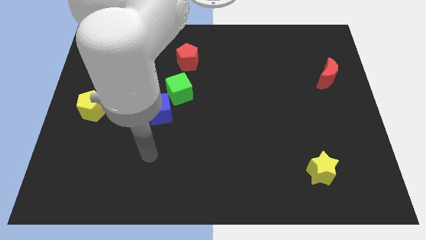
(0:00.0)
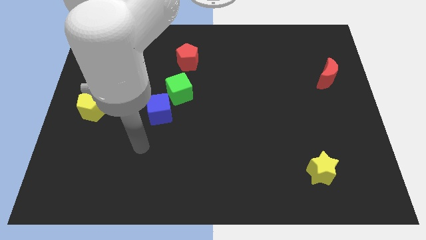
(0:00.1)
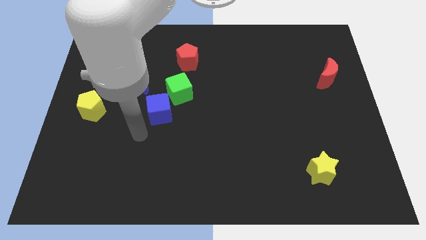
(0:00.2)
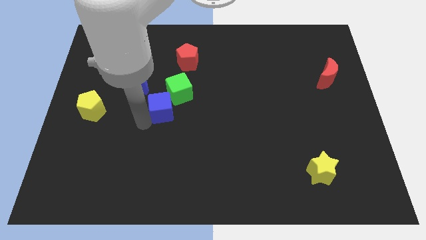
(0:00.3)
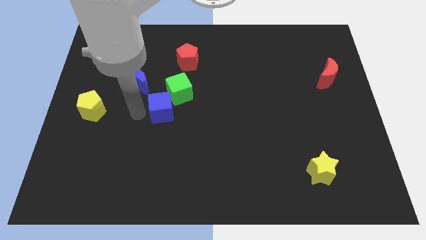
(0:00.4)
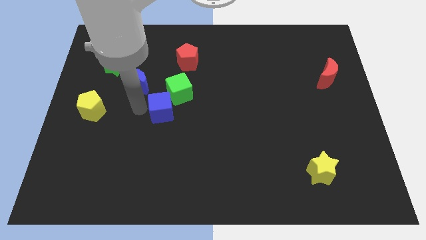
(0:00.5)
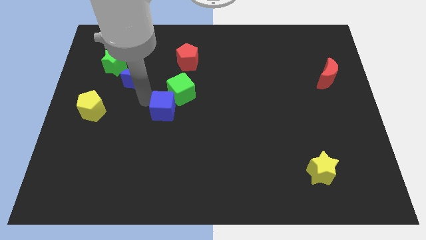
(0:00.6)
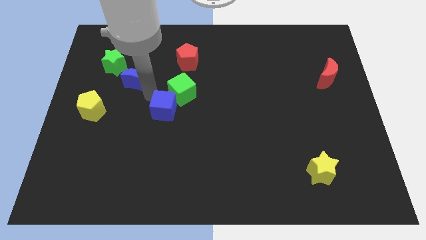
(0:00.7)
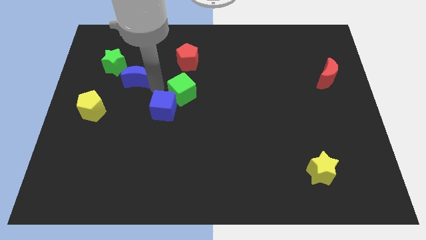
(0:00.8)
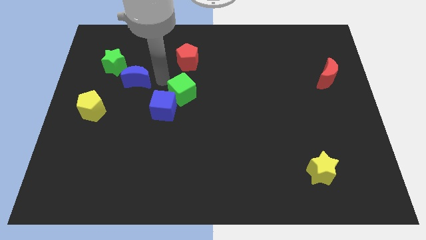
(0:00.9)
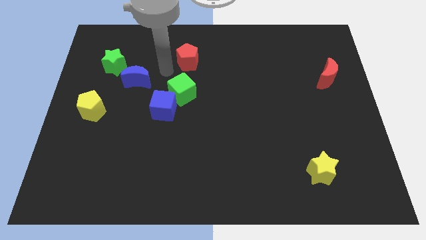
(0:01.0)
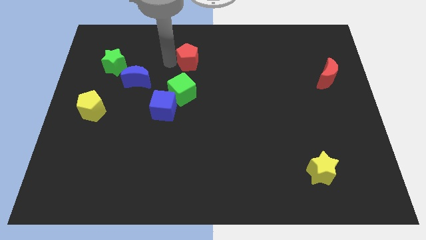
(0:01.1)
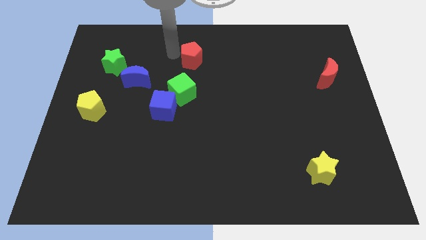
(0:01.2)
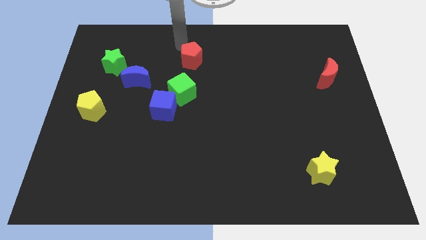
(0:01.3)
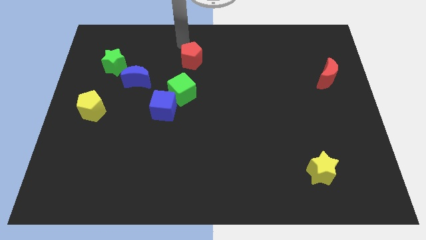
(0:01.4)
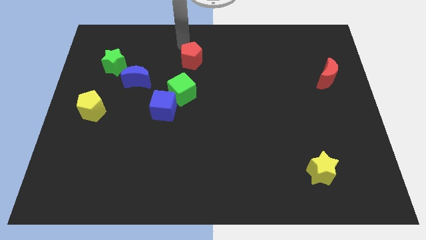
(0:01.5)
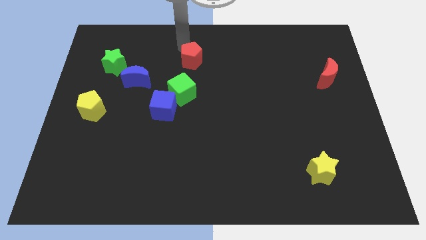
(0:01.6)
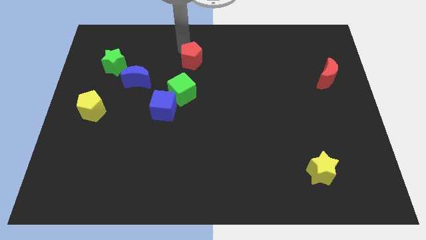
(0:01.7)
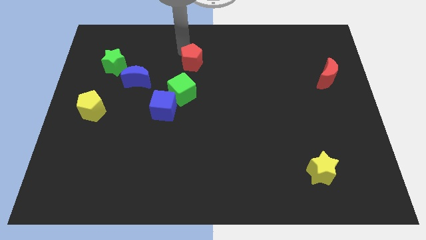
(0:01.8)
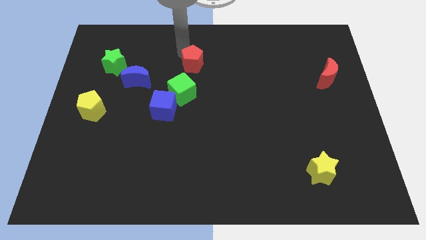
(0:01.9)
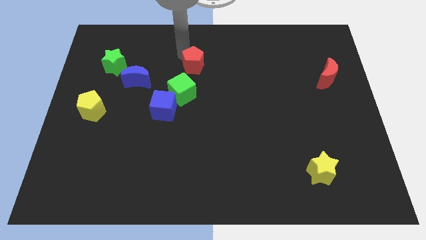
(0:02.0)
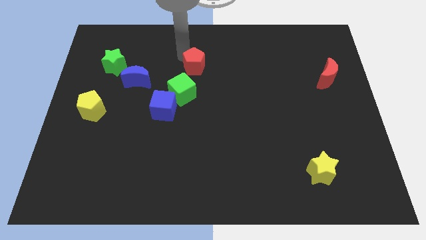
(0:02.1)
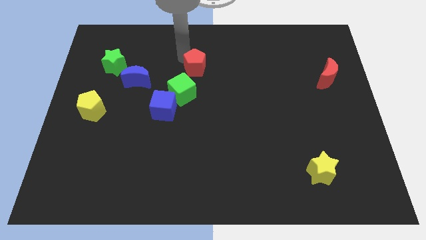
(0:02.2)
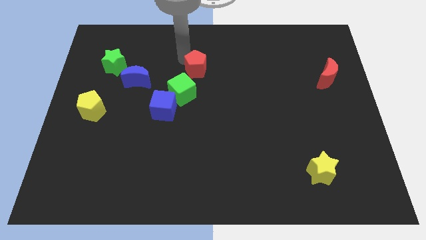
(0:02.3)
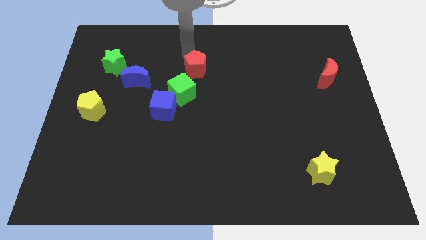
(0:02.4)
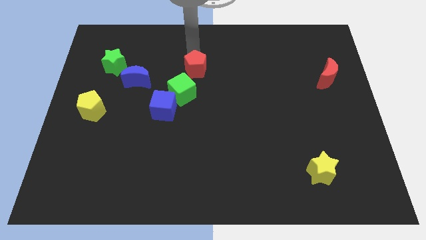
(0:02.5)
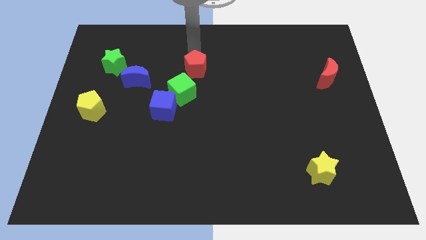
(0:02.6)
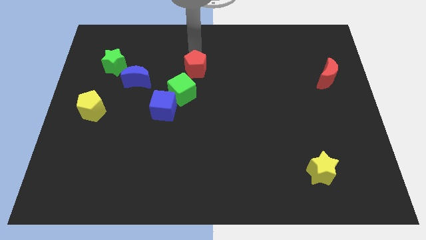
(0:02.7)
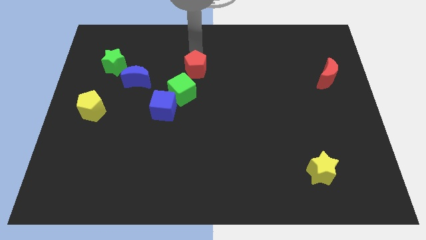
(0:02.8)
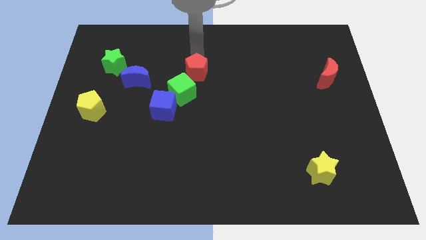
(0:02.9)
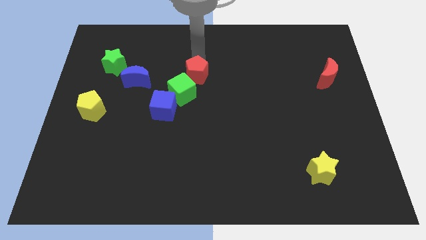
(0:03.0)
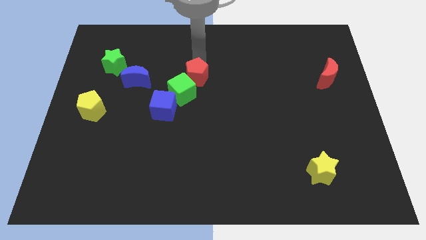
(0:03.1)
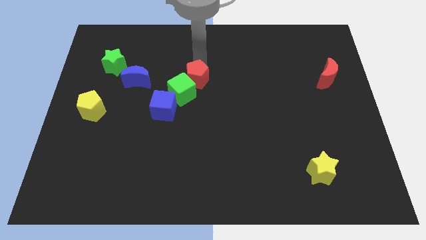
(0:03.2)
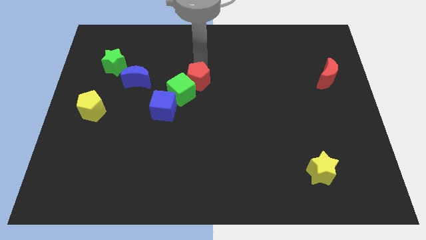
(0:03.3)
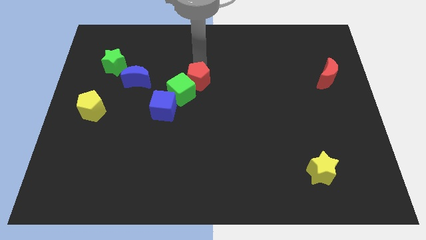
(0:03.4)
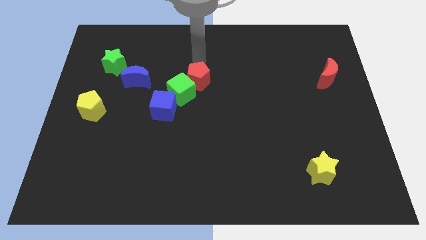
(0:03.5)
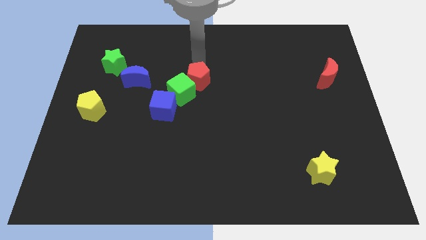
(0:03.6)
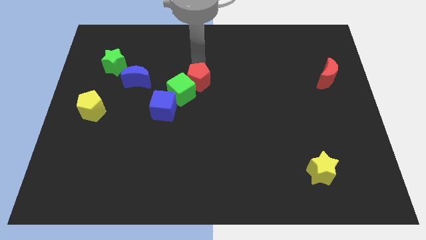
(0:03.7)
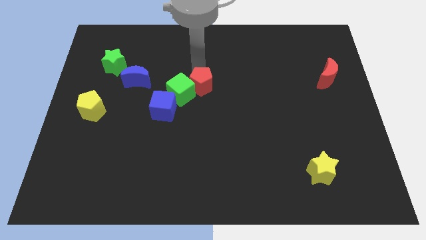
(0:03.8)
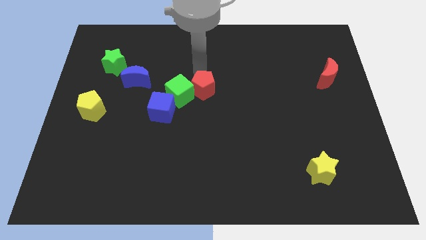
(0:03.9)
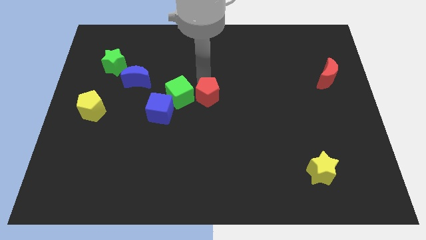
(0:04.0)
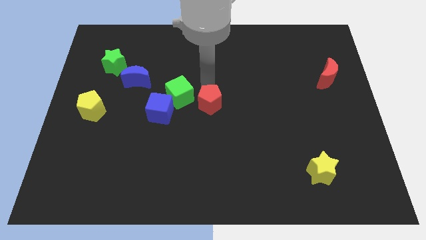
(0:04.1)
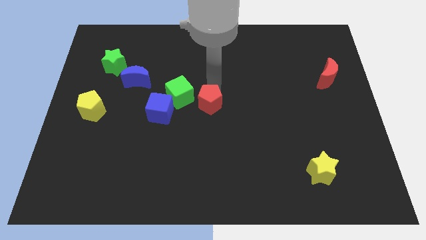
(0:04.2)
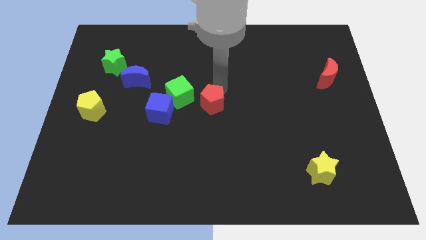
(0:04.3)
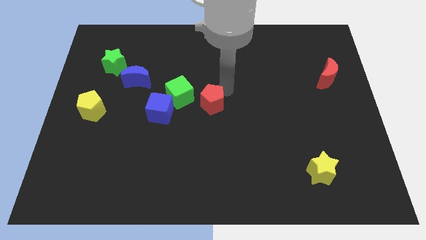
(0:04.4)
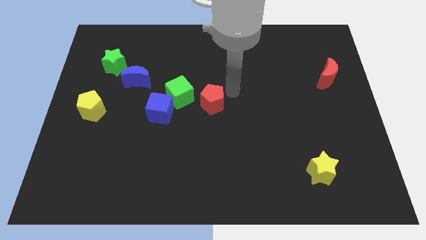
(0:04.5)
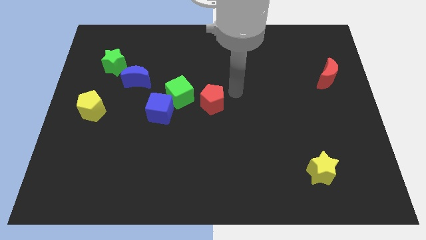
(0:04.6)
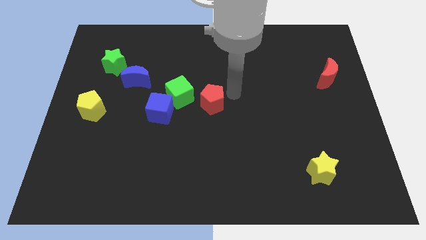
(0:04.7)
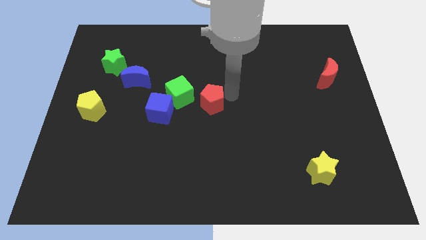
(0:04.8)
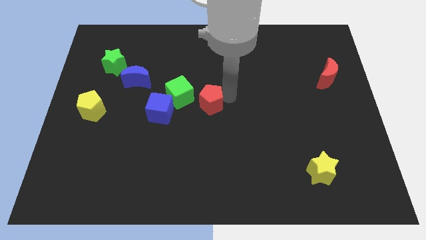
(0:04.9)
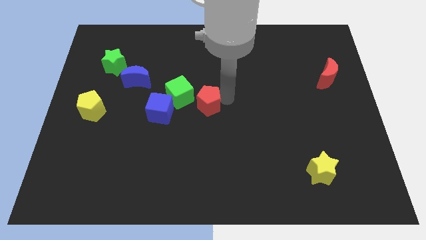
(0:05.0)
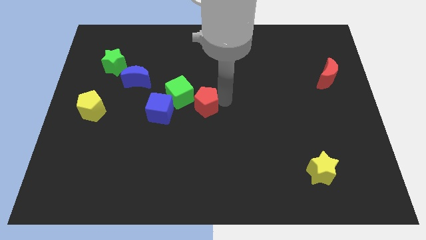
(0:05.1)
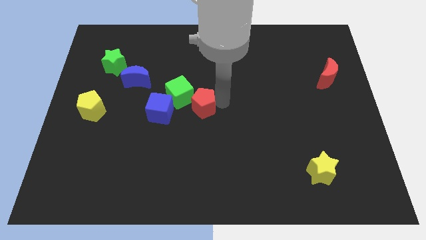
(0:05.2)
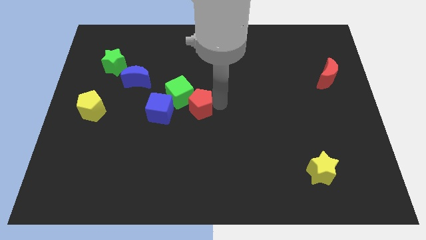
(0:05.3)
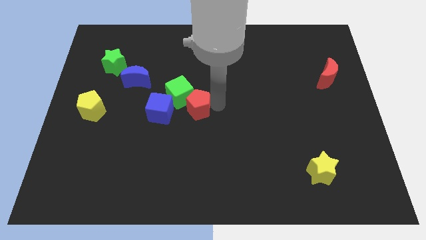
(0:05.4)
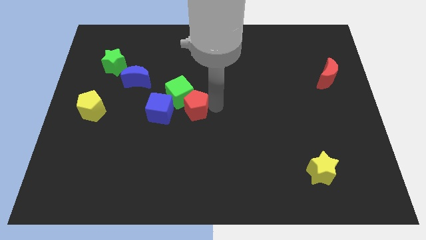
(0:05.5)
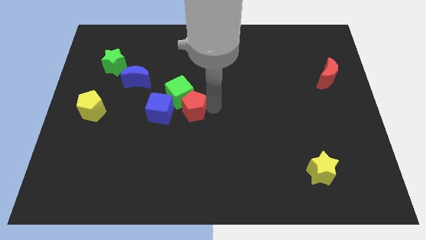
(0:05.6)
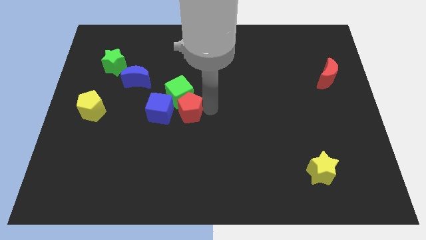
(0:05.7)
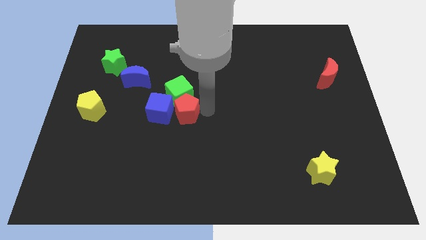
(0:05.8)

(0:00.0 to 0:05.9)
move the red pentagon to the blue cube

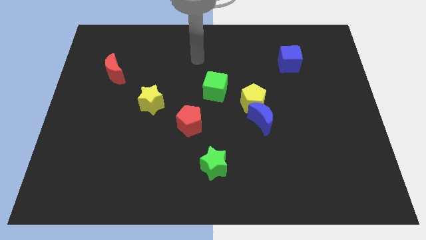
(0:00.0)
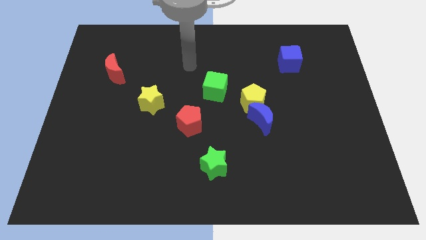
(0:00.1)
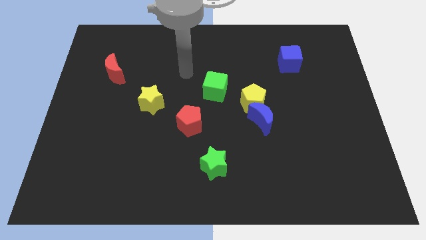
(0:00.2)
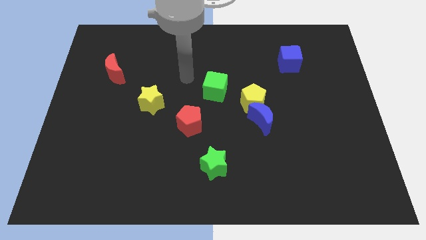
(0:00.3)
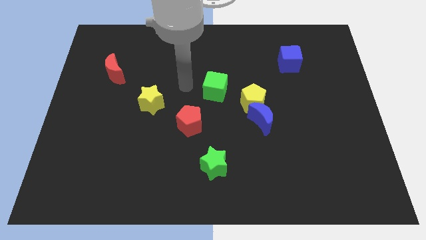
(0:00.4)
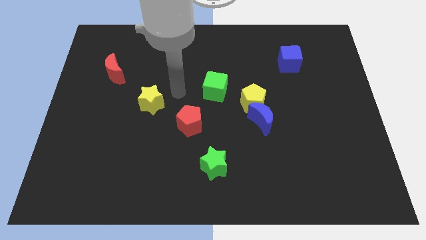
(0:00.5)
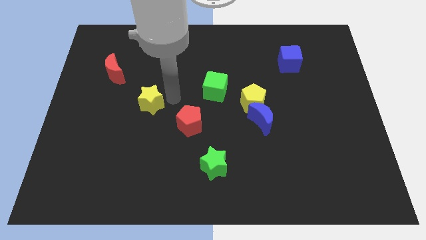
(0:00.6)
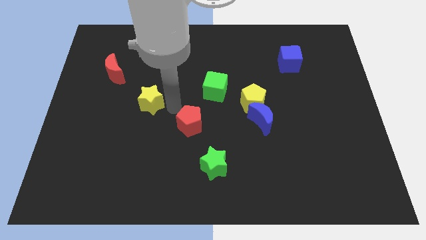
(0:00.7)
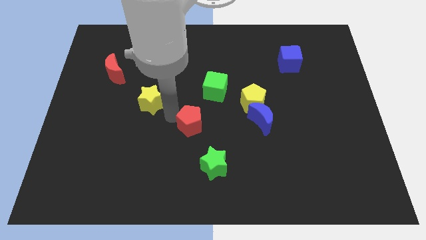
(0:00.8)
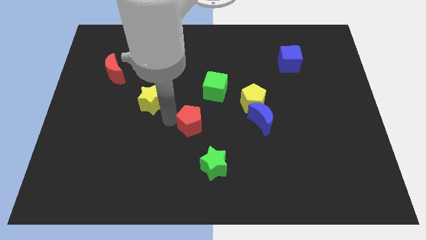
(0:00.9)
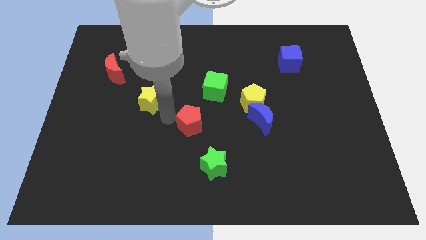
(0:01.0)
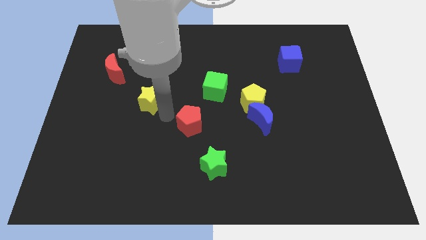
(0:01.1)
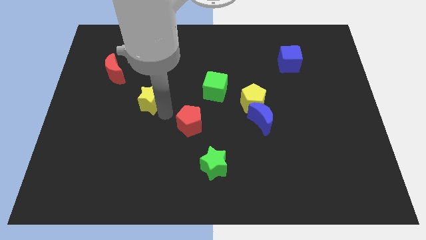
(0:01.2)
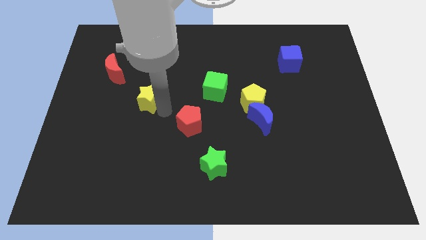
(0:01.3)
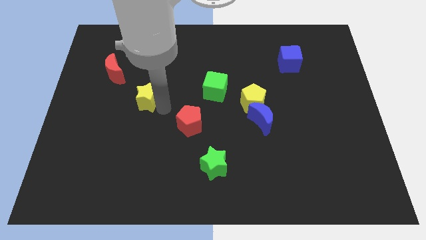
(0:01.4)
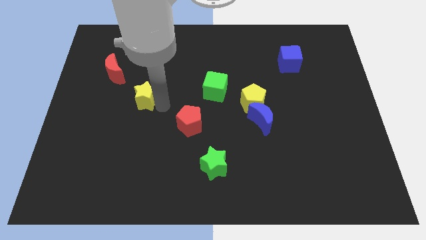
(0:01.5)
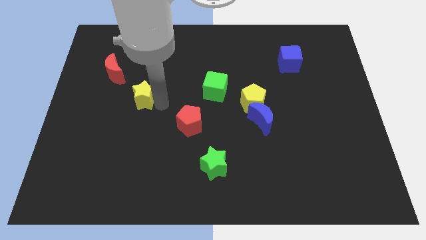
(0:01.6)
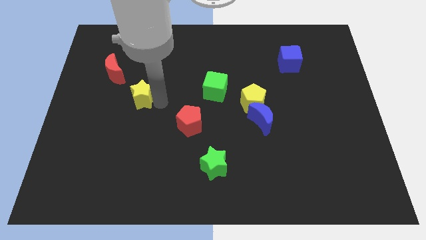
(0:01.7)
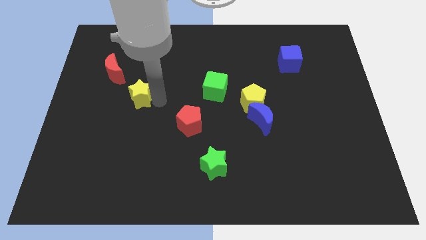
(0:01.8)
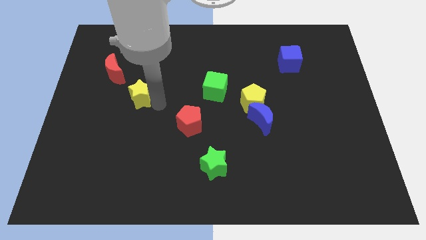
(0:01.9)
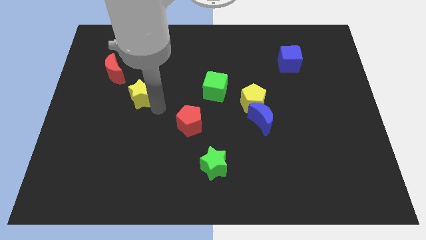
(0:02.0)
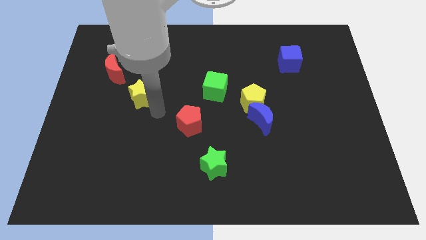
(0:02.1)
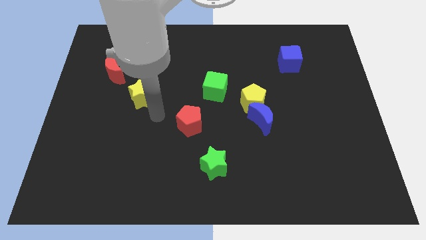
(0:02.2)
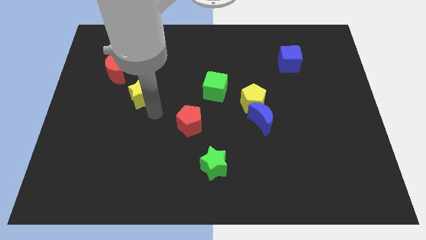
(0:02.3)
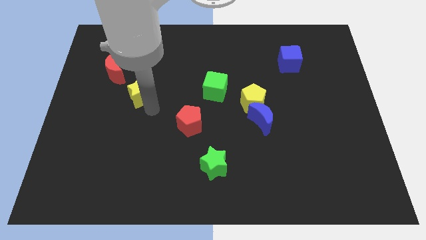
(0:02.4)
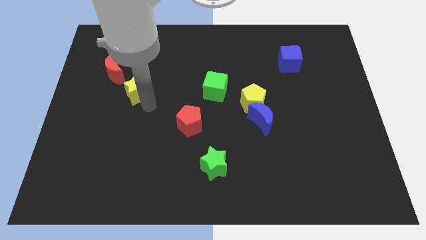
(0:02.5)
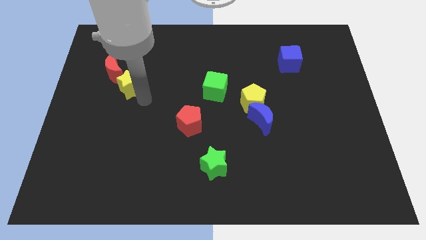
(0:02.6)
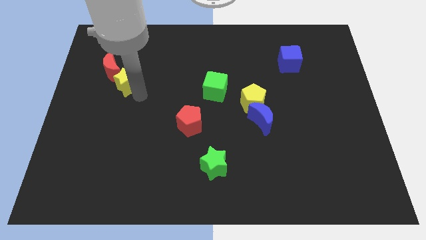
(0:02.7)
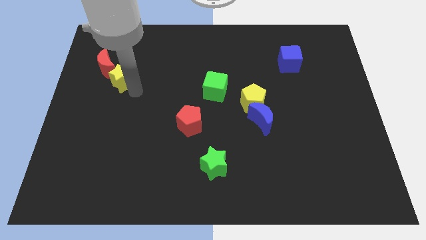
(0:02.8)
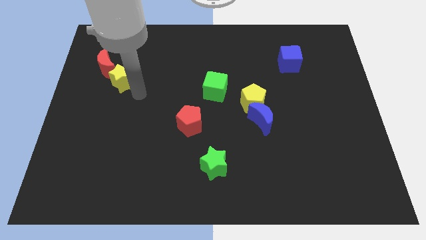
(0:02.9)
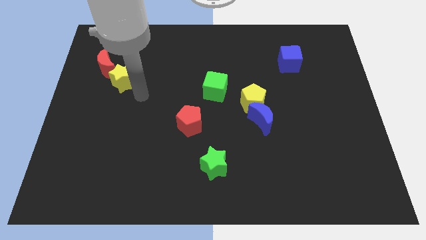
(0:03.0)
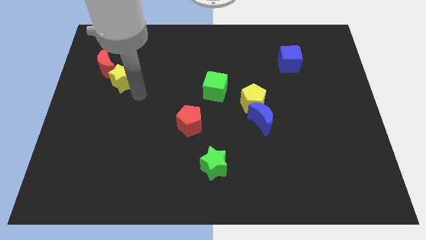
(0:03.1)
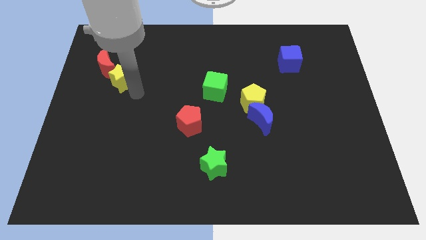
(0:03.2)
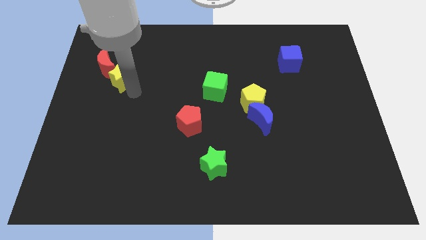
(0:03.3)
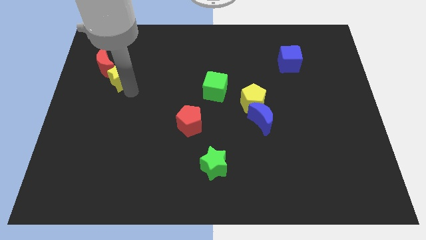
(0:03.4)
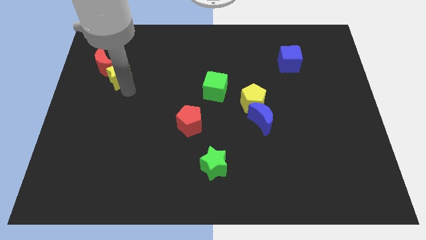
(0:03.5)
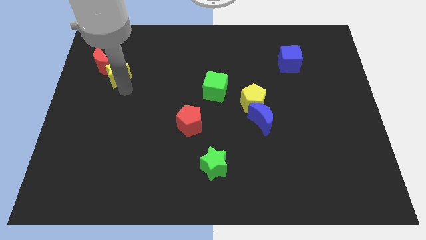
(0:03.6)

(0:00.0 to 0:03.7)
push the yellow star close to the red moon
